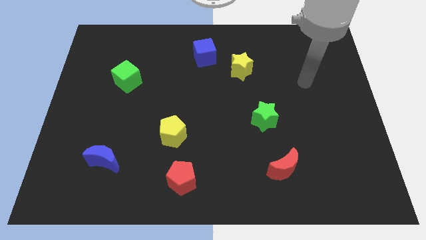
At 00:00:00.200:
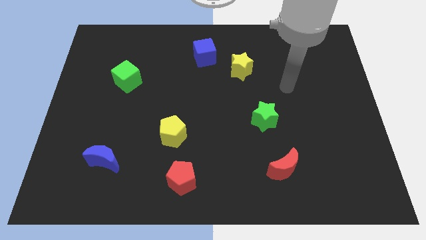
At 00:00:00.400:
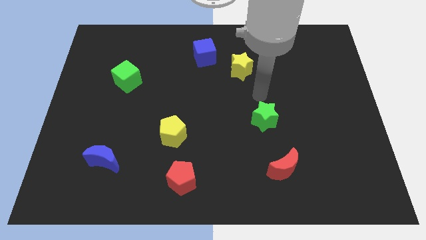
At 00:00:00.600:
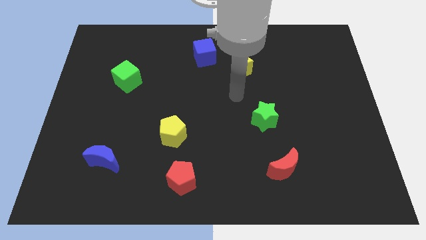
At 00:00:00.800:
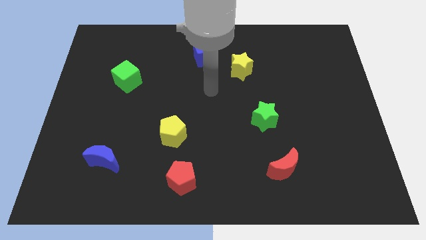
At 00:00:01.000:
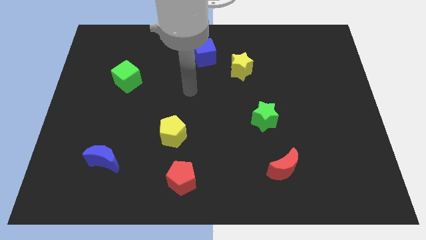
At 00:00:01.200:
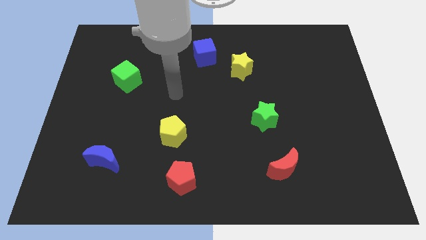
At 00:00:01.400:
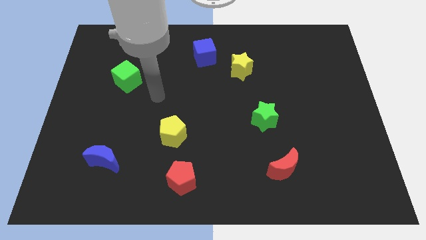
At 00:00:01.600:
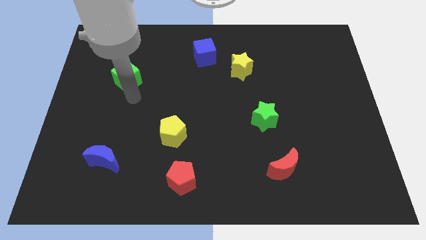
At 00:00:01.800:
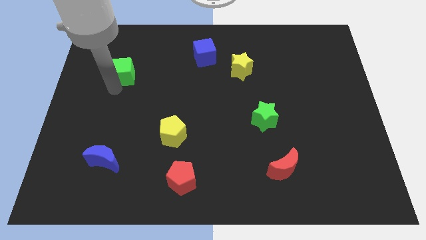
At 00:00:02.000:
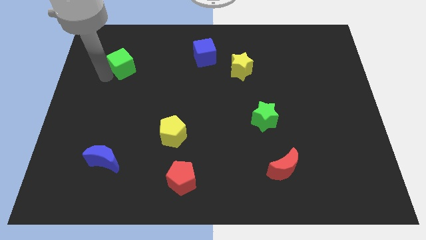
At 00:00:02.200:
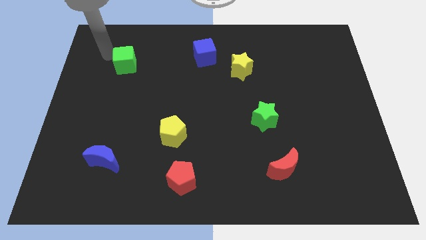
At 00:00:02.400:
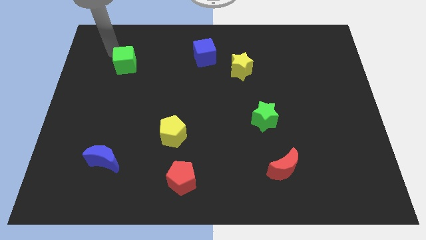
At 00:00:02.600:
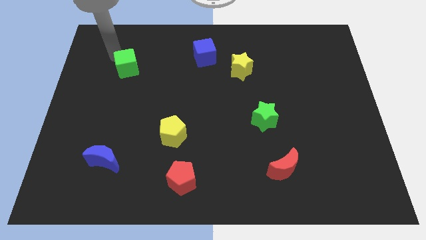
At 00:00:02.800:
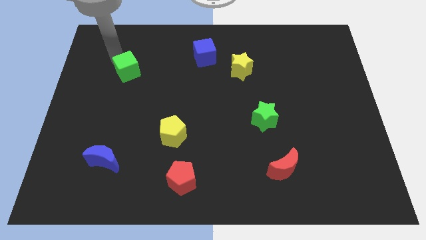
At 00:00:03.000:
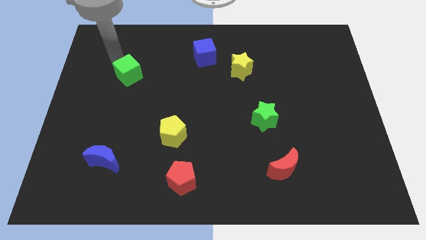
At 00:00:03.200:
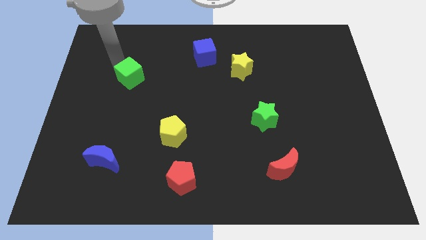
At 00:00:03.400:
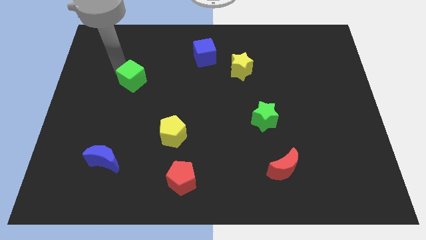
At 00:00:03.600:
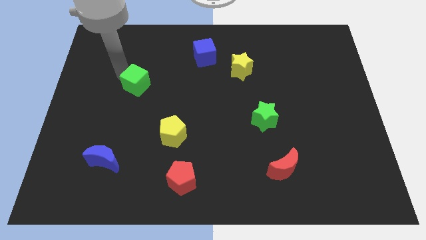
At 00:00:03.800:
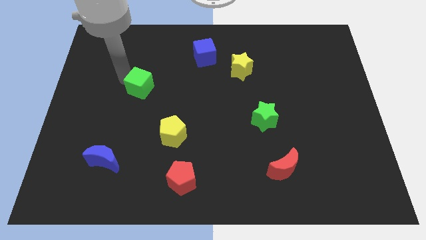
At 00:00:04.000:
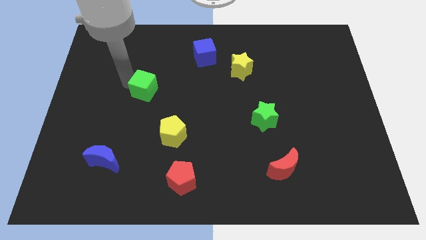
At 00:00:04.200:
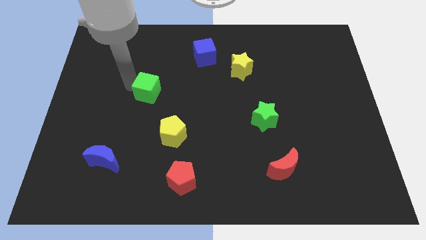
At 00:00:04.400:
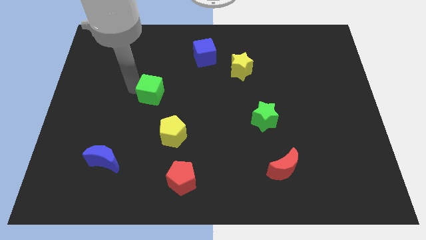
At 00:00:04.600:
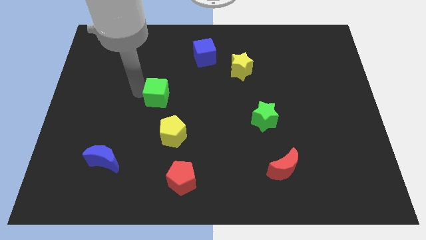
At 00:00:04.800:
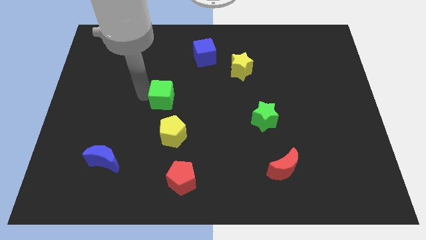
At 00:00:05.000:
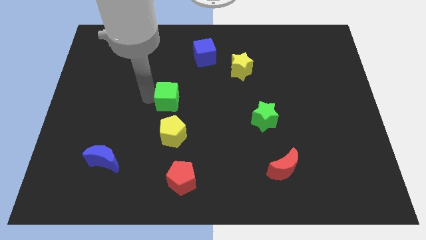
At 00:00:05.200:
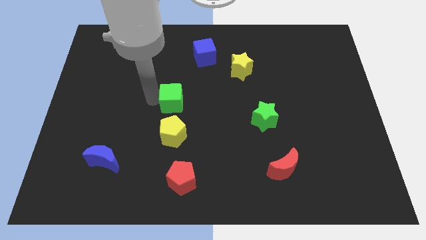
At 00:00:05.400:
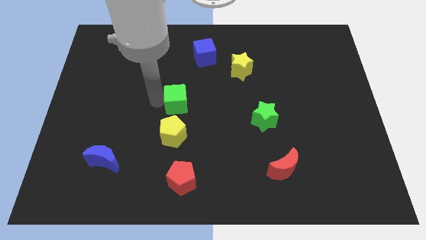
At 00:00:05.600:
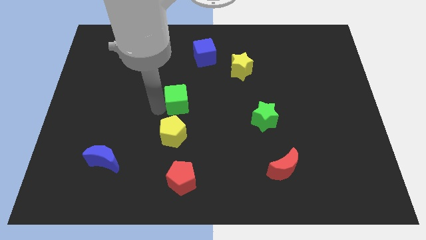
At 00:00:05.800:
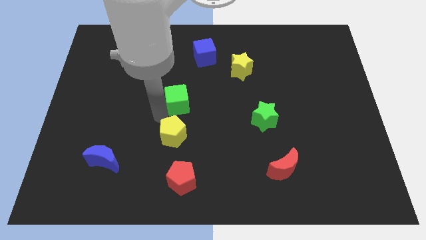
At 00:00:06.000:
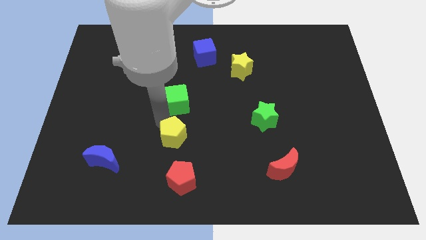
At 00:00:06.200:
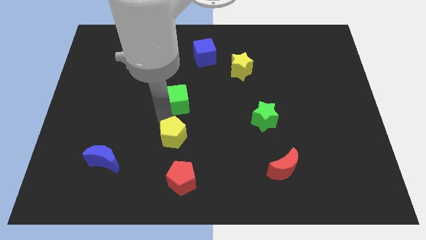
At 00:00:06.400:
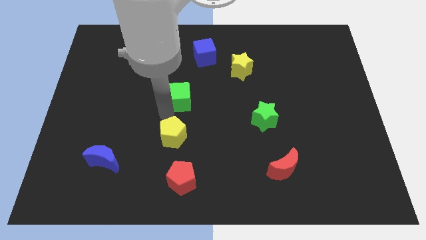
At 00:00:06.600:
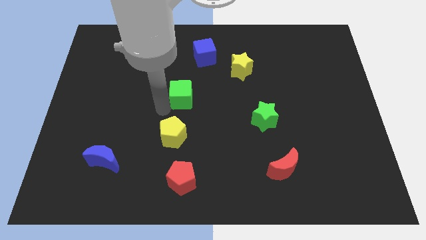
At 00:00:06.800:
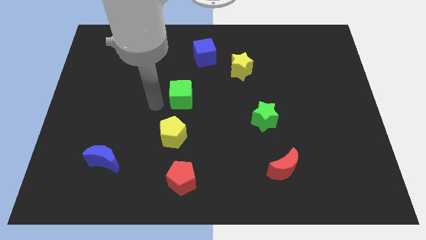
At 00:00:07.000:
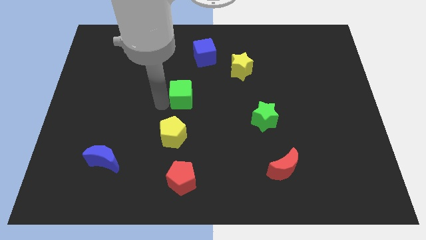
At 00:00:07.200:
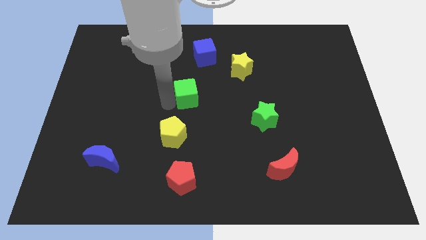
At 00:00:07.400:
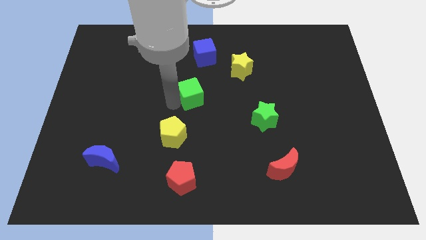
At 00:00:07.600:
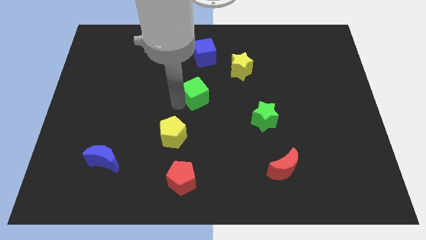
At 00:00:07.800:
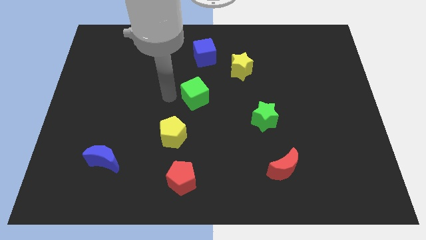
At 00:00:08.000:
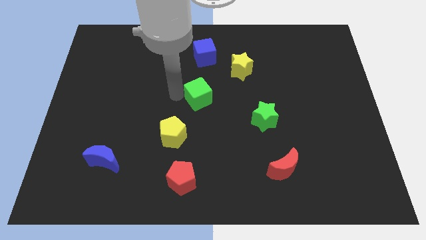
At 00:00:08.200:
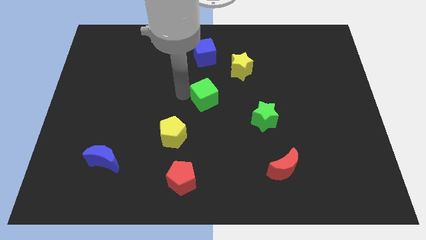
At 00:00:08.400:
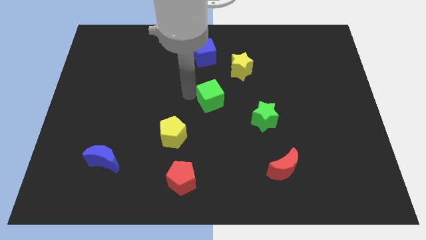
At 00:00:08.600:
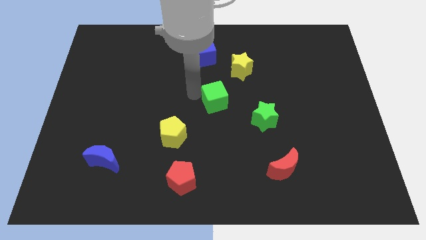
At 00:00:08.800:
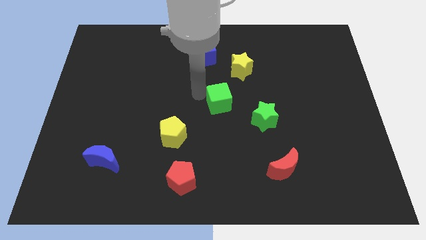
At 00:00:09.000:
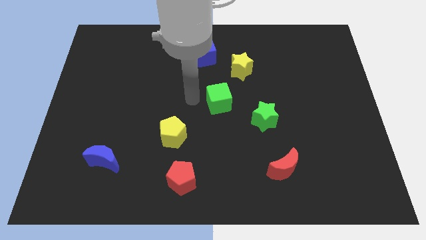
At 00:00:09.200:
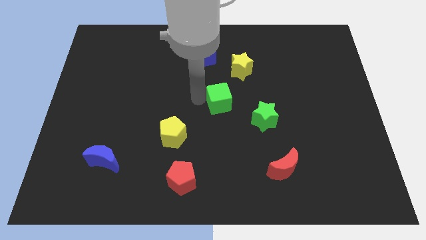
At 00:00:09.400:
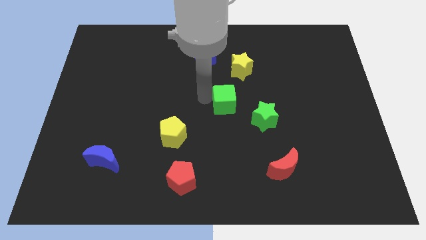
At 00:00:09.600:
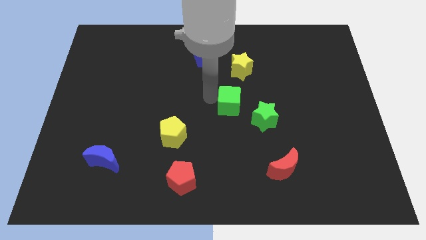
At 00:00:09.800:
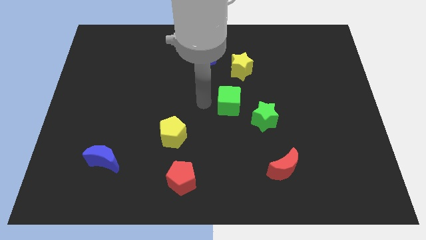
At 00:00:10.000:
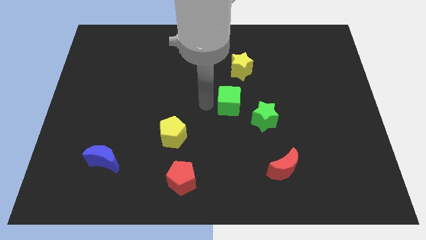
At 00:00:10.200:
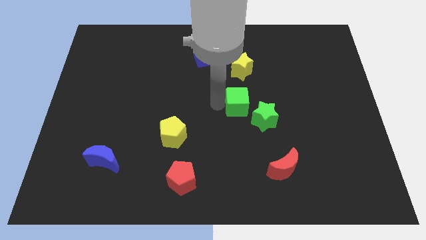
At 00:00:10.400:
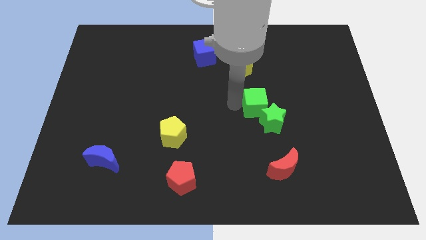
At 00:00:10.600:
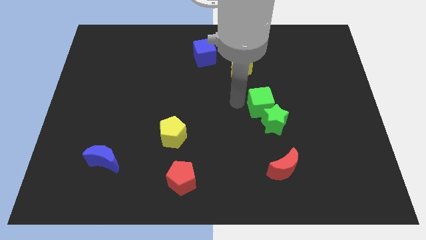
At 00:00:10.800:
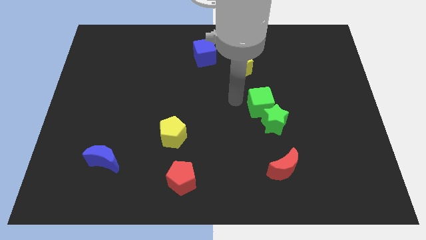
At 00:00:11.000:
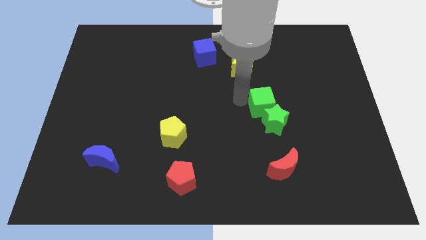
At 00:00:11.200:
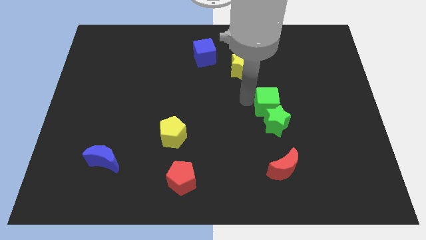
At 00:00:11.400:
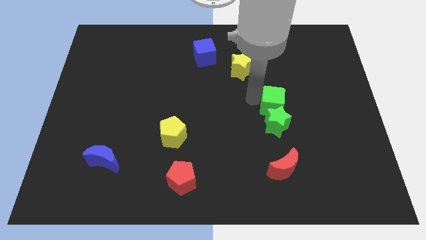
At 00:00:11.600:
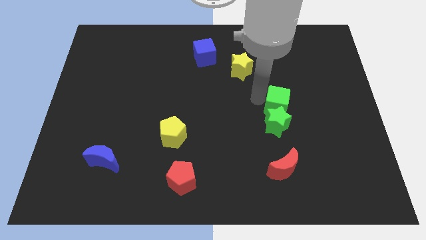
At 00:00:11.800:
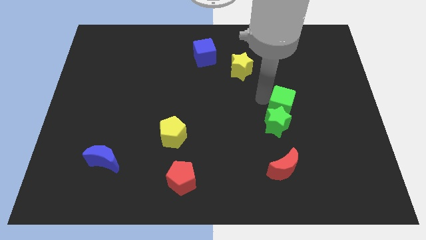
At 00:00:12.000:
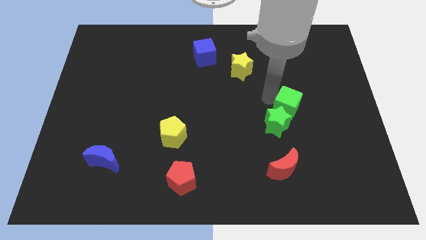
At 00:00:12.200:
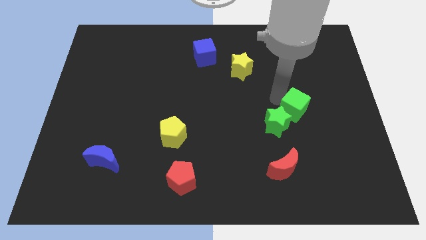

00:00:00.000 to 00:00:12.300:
move the green cube to the right side of the green star

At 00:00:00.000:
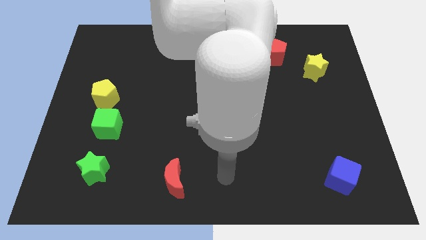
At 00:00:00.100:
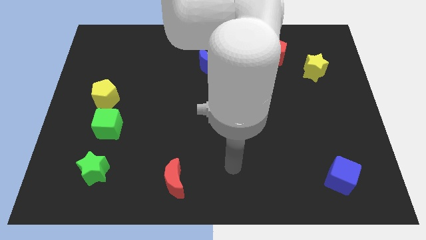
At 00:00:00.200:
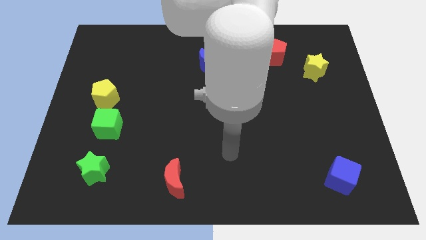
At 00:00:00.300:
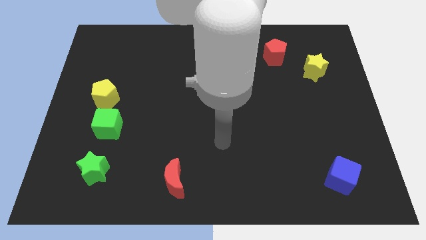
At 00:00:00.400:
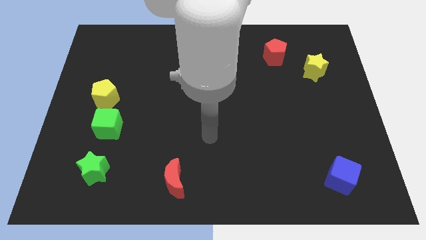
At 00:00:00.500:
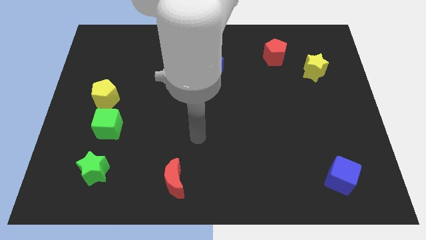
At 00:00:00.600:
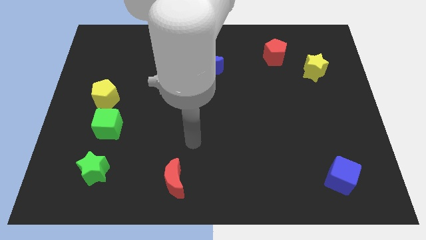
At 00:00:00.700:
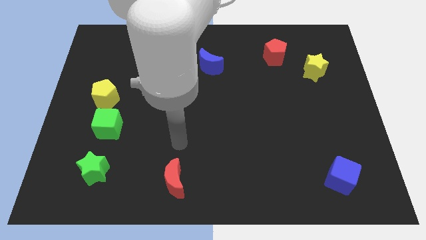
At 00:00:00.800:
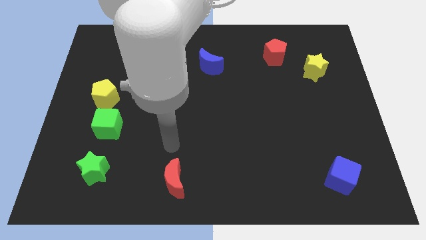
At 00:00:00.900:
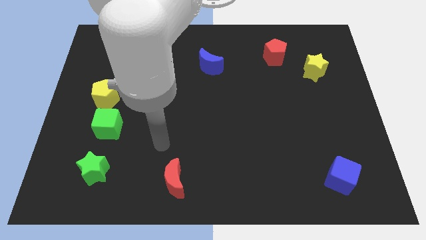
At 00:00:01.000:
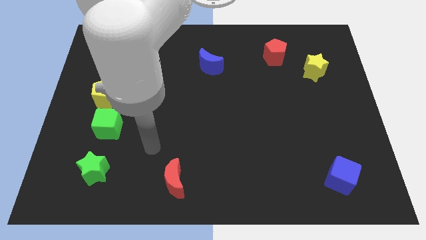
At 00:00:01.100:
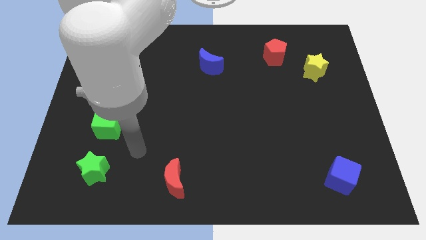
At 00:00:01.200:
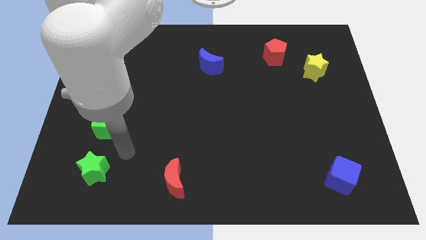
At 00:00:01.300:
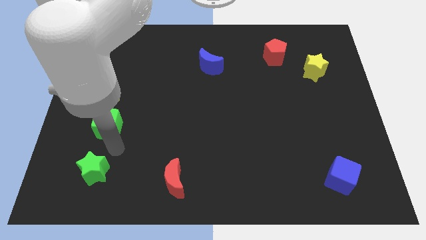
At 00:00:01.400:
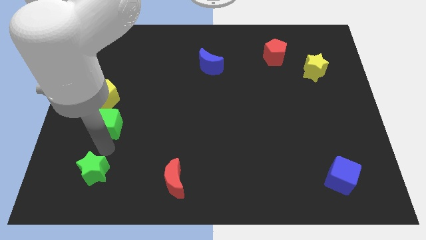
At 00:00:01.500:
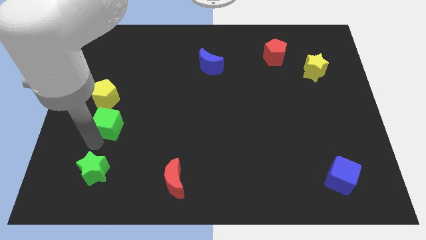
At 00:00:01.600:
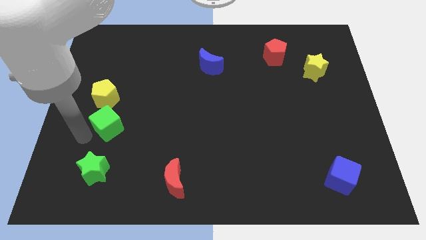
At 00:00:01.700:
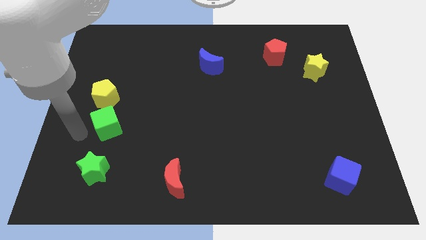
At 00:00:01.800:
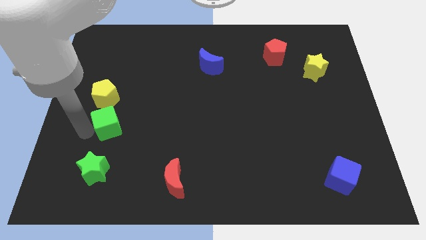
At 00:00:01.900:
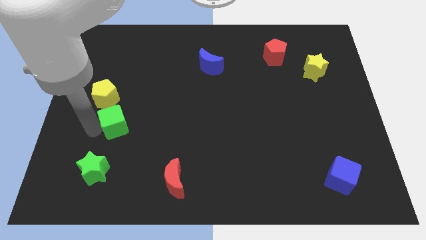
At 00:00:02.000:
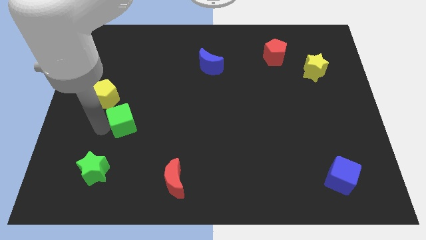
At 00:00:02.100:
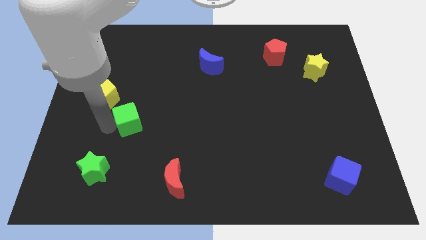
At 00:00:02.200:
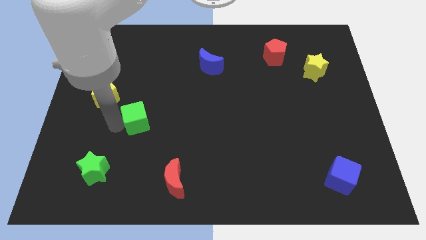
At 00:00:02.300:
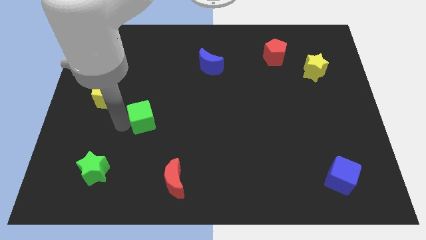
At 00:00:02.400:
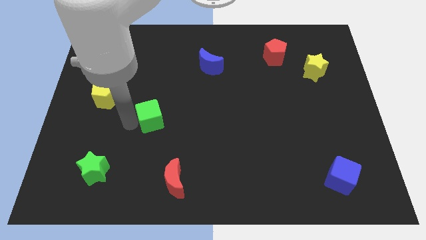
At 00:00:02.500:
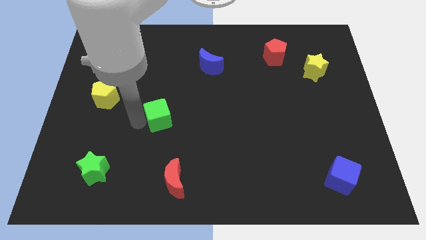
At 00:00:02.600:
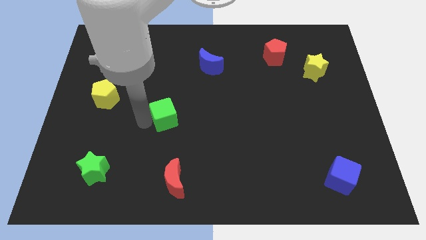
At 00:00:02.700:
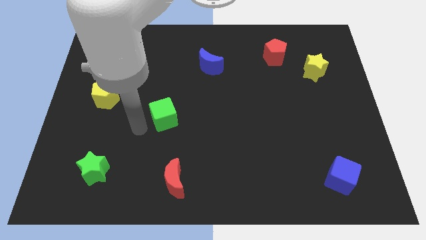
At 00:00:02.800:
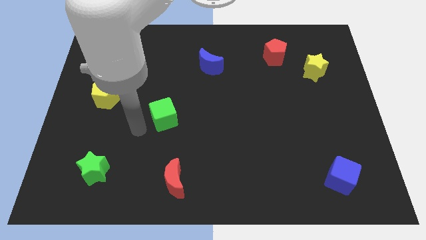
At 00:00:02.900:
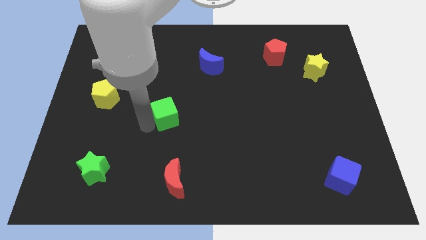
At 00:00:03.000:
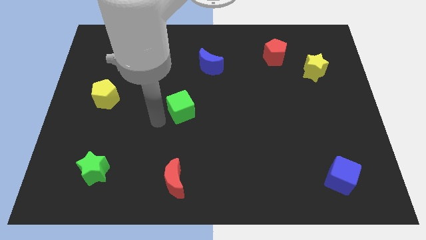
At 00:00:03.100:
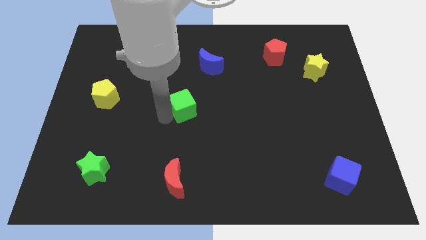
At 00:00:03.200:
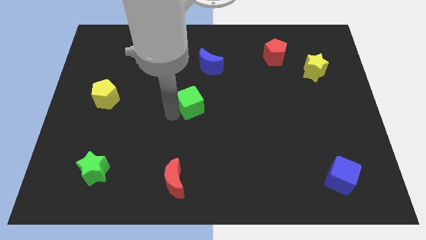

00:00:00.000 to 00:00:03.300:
put the green cube below the blue moon
